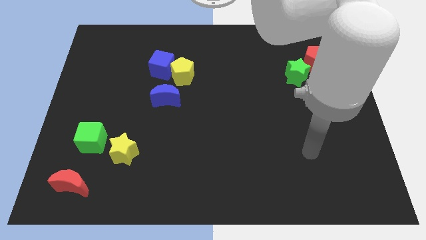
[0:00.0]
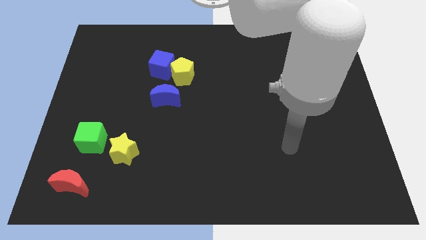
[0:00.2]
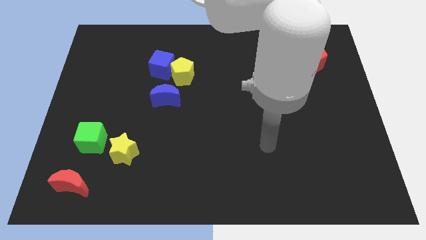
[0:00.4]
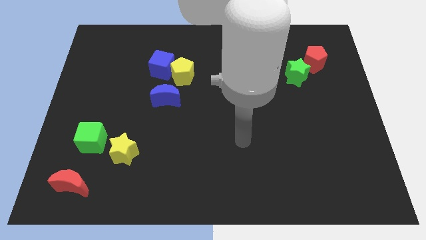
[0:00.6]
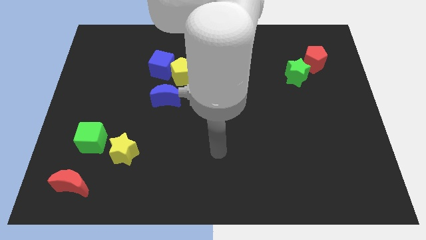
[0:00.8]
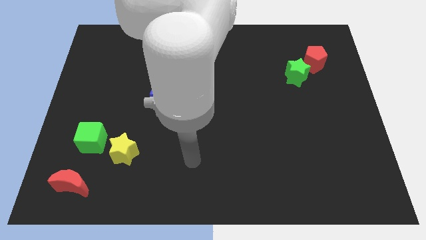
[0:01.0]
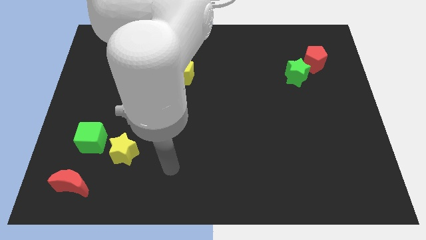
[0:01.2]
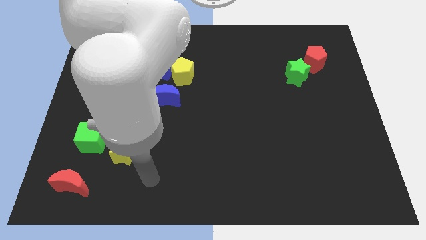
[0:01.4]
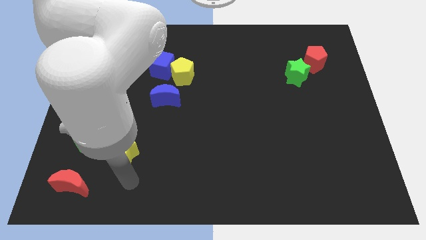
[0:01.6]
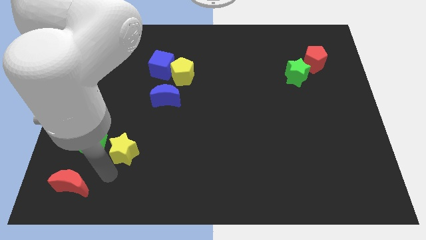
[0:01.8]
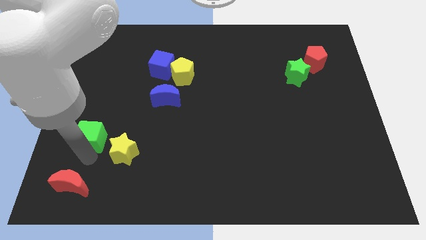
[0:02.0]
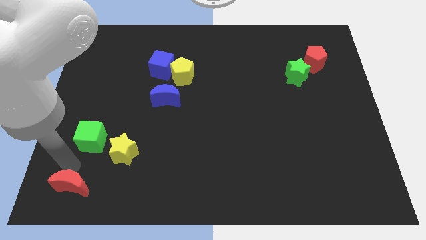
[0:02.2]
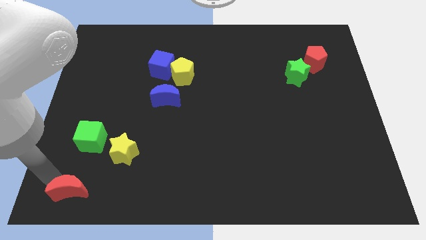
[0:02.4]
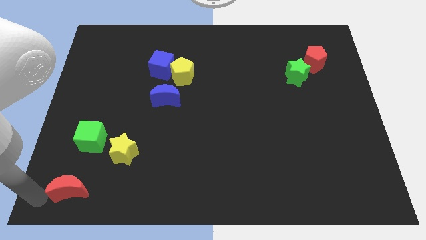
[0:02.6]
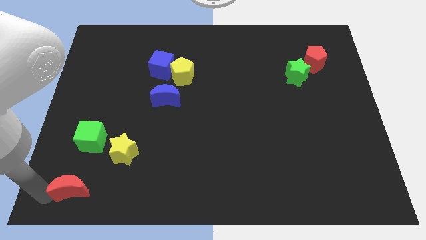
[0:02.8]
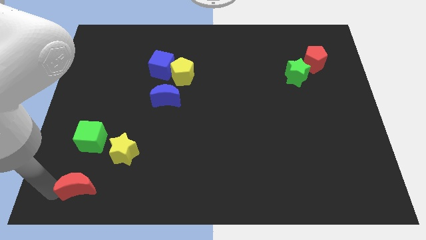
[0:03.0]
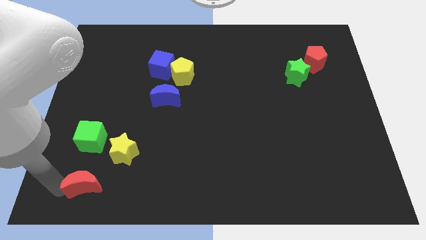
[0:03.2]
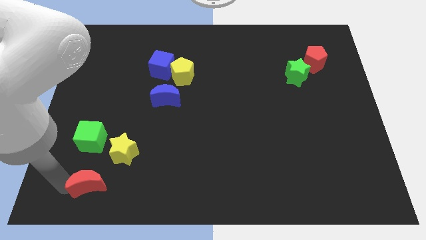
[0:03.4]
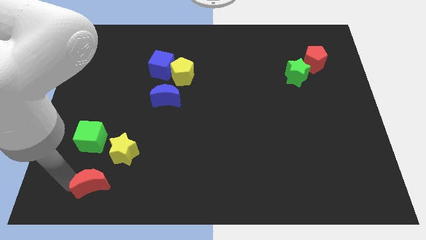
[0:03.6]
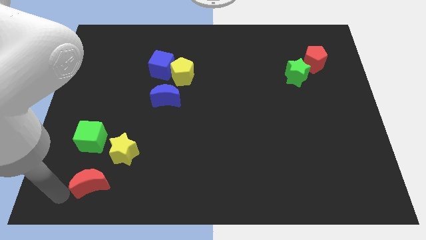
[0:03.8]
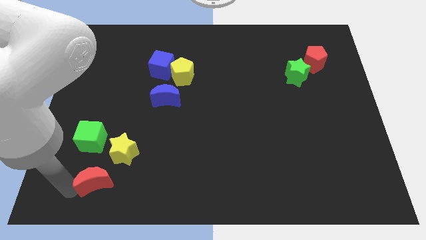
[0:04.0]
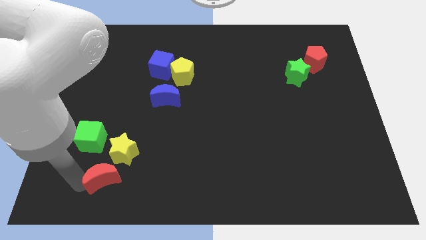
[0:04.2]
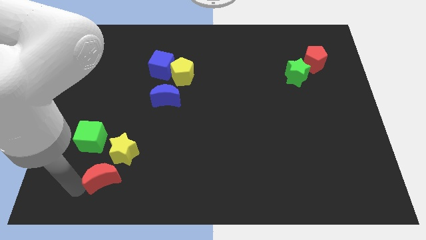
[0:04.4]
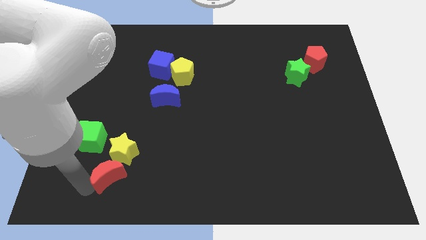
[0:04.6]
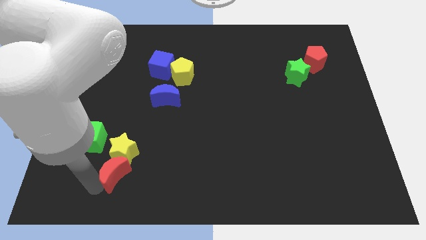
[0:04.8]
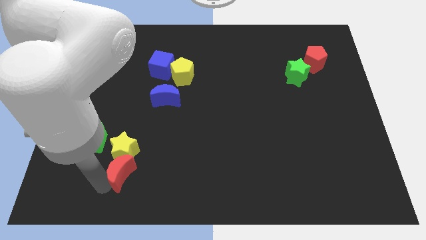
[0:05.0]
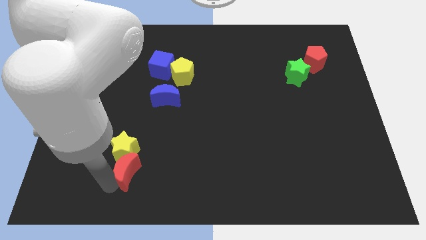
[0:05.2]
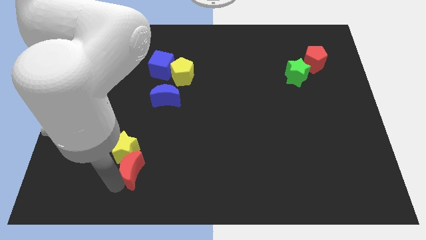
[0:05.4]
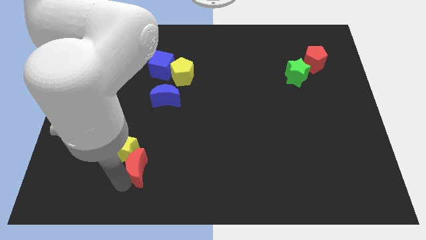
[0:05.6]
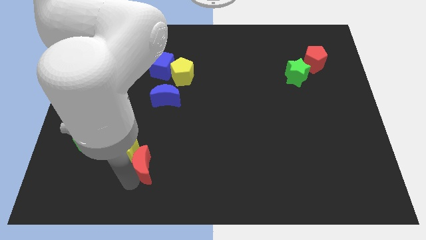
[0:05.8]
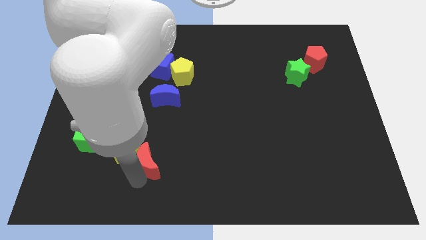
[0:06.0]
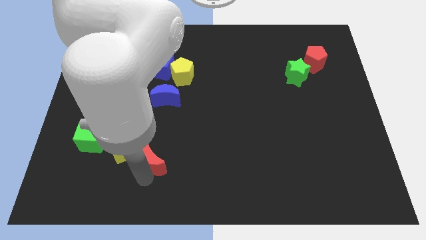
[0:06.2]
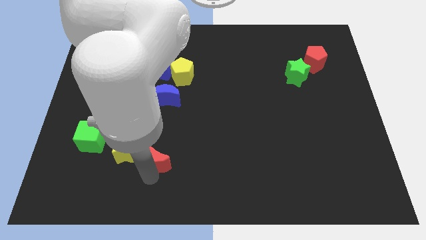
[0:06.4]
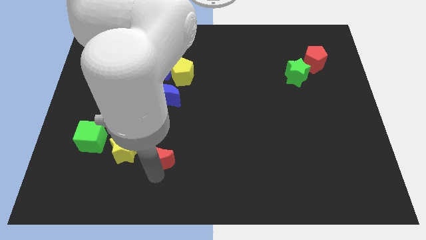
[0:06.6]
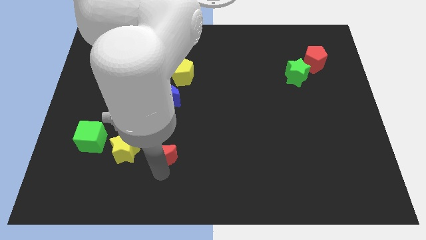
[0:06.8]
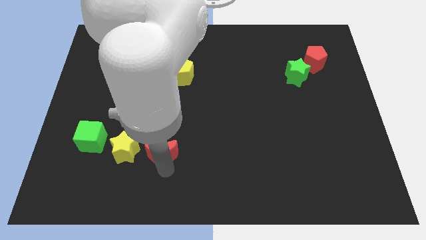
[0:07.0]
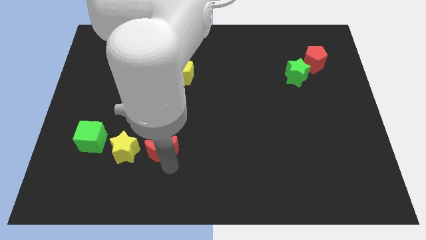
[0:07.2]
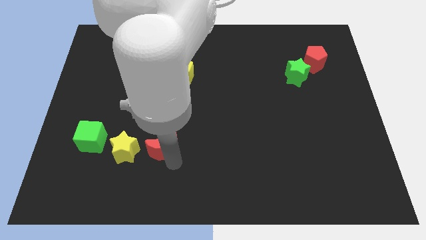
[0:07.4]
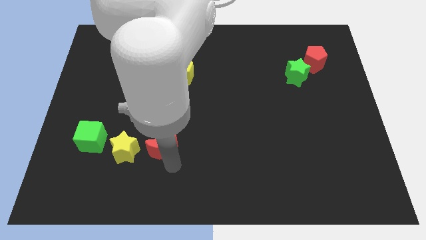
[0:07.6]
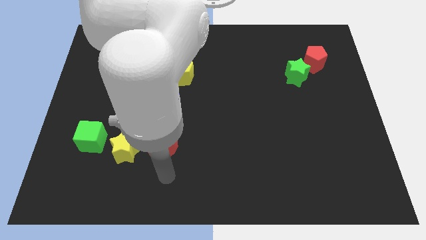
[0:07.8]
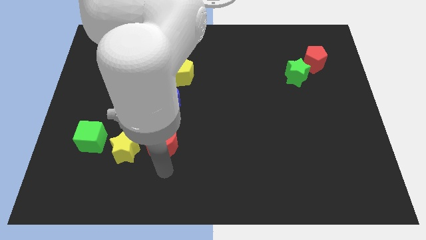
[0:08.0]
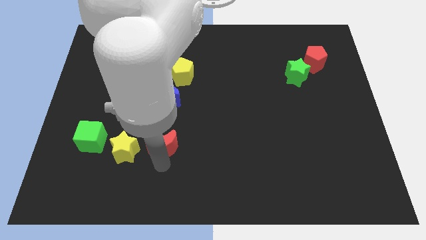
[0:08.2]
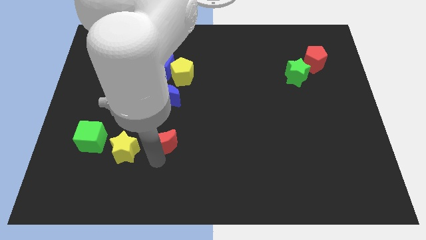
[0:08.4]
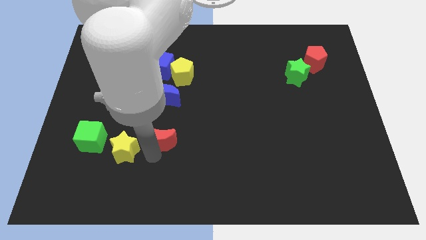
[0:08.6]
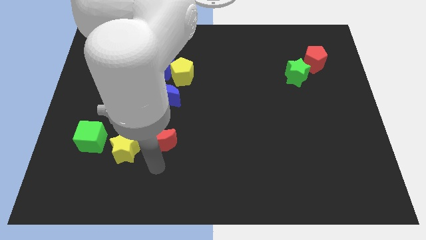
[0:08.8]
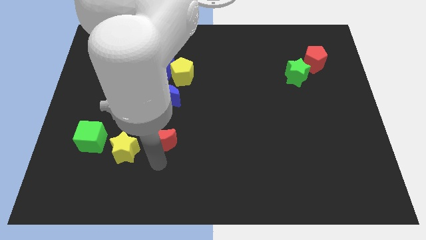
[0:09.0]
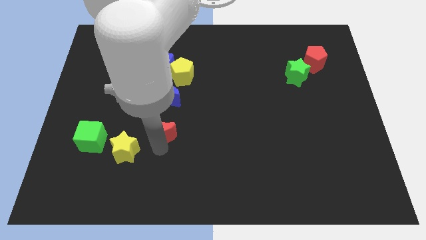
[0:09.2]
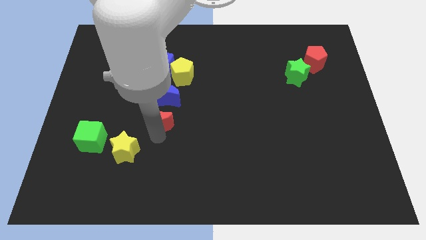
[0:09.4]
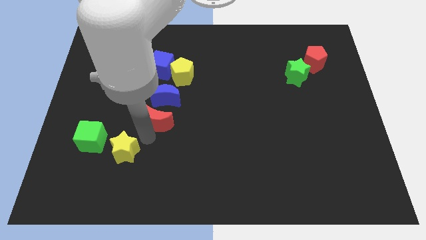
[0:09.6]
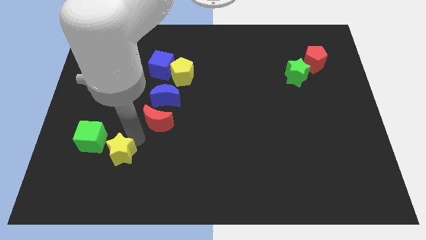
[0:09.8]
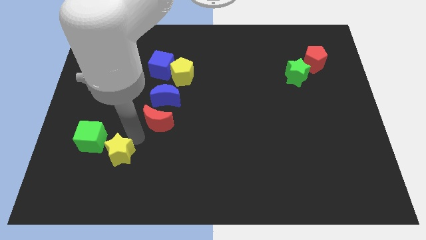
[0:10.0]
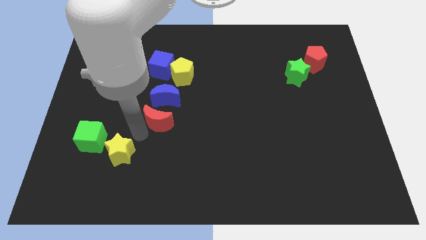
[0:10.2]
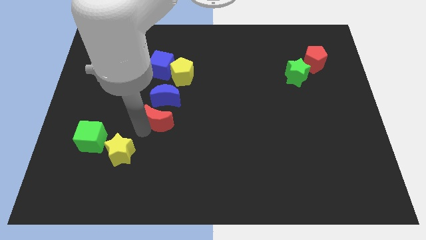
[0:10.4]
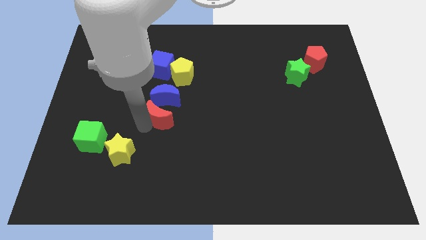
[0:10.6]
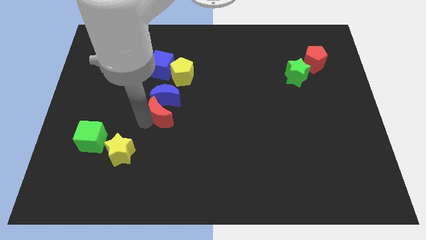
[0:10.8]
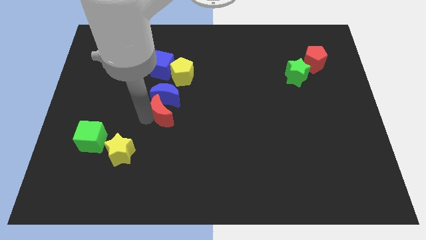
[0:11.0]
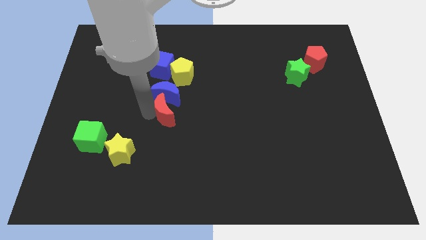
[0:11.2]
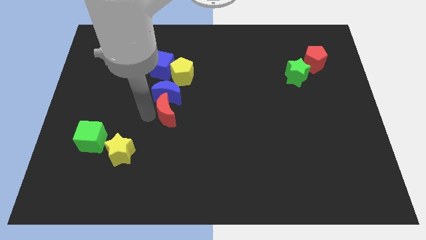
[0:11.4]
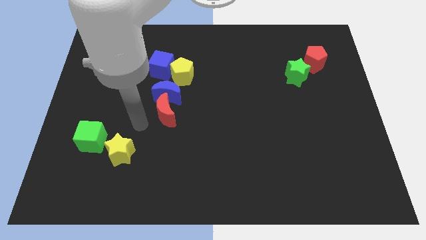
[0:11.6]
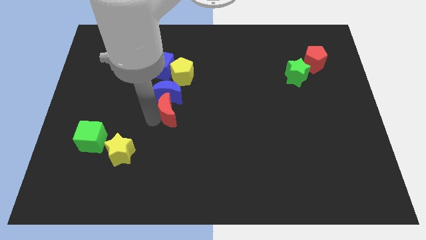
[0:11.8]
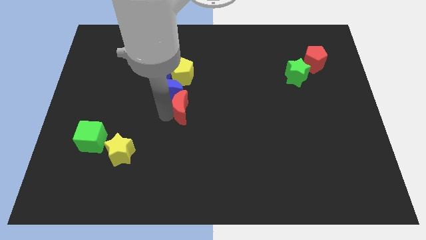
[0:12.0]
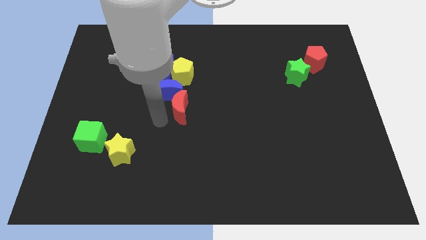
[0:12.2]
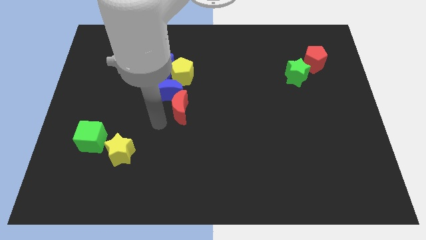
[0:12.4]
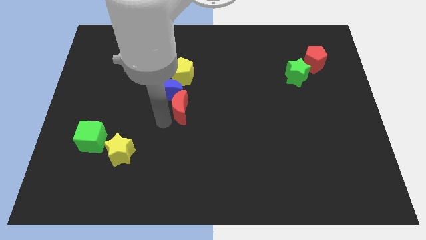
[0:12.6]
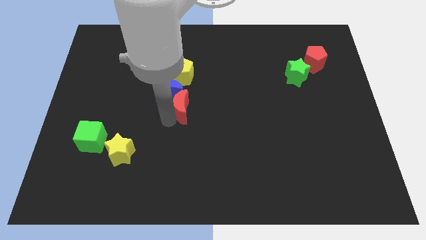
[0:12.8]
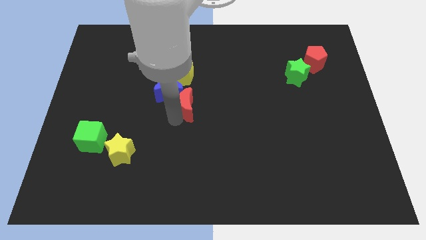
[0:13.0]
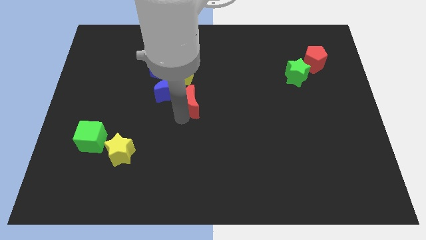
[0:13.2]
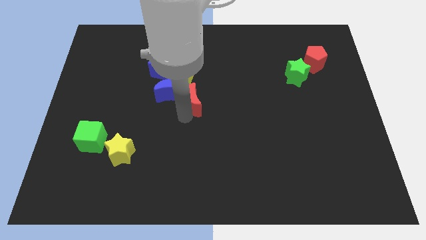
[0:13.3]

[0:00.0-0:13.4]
put the red moon to the bottom right of the yellow pentagon

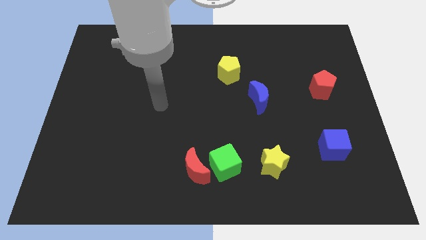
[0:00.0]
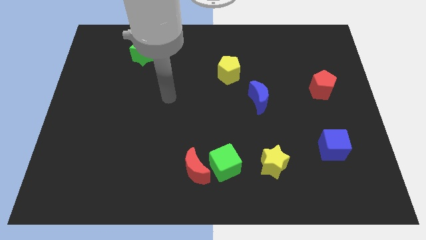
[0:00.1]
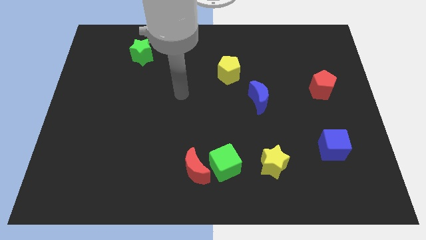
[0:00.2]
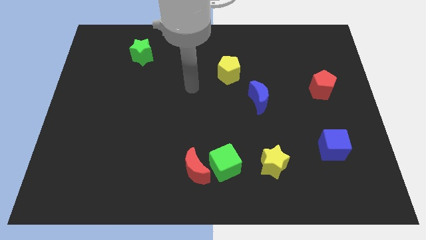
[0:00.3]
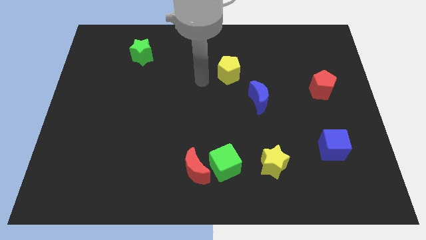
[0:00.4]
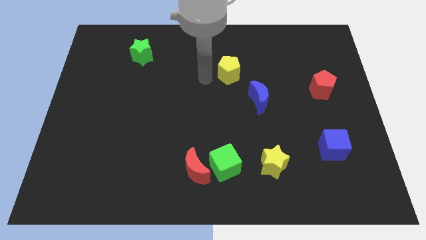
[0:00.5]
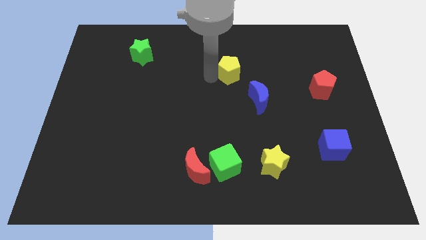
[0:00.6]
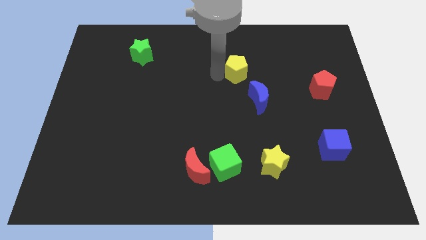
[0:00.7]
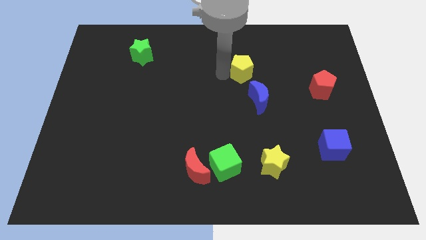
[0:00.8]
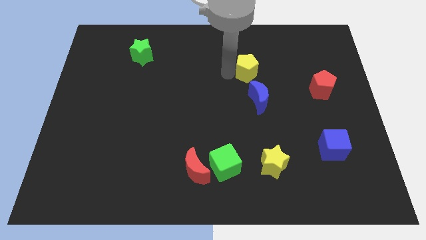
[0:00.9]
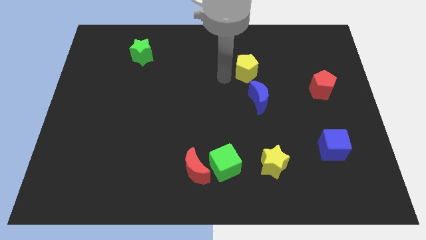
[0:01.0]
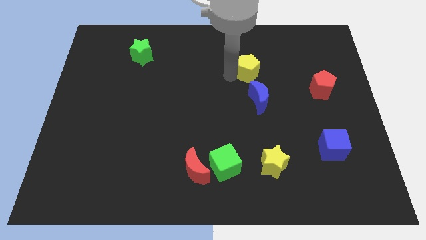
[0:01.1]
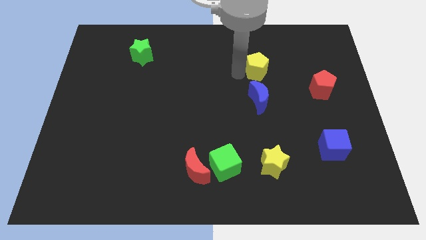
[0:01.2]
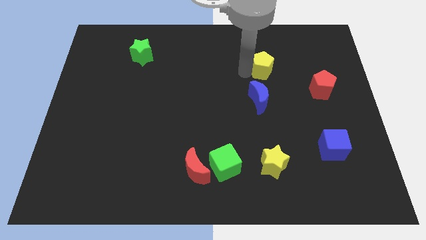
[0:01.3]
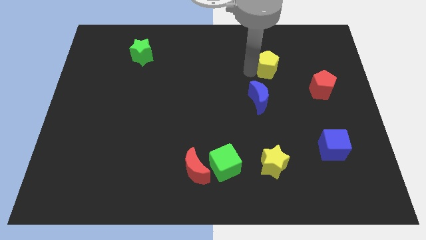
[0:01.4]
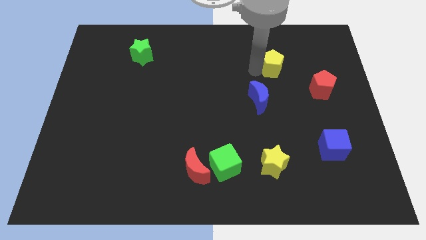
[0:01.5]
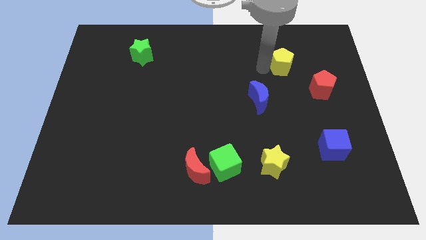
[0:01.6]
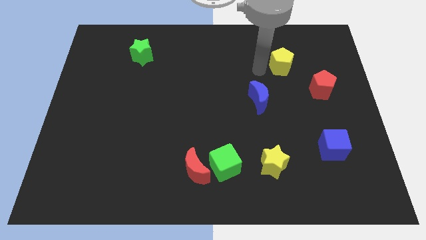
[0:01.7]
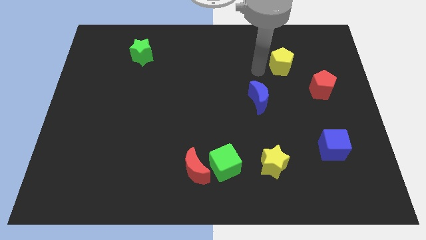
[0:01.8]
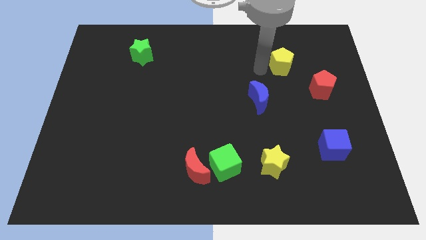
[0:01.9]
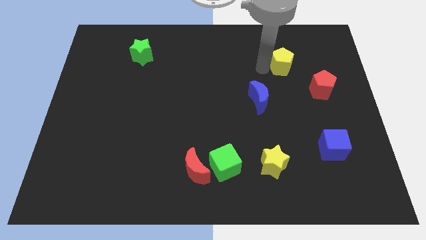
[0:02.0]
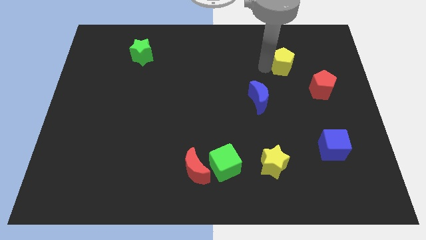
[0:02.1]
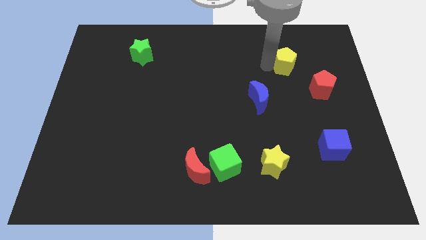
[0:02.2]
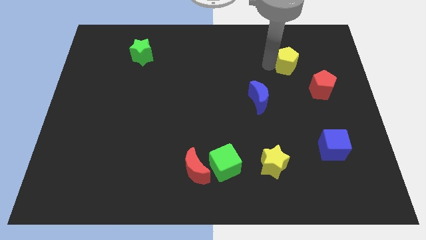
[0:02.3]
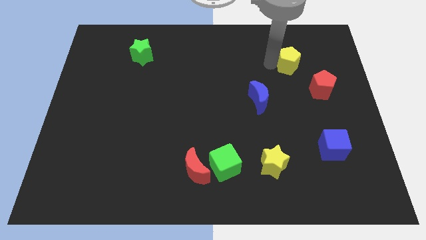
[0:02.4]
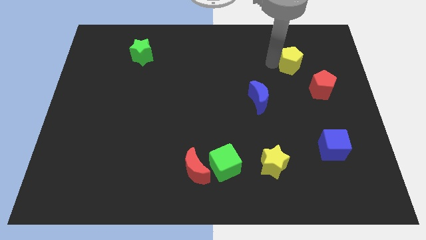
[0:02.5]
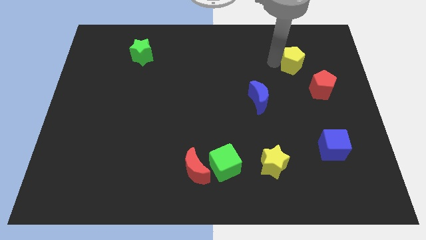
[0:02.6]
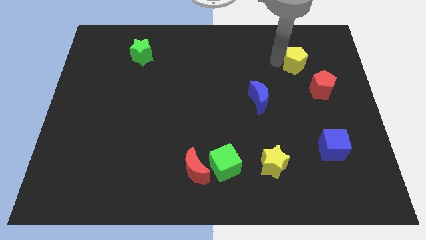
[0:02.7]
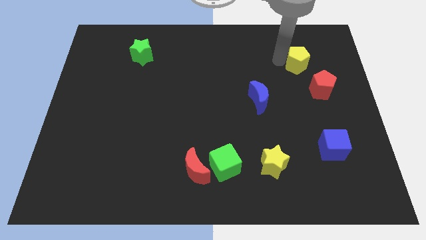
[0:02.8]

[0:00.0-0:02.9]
push the yellow pentagon above the red pentagon
